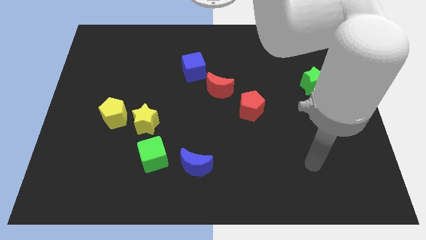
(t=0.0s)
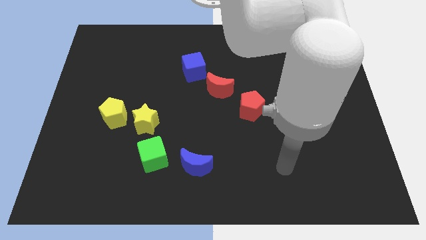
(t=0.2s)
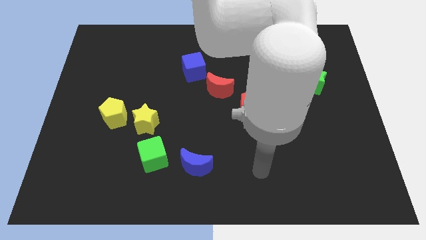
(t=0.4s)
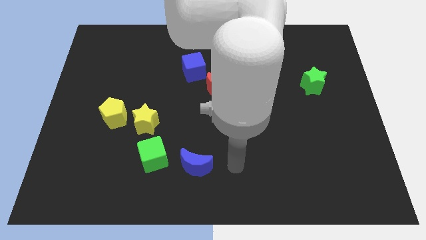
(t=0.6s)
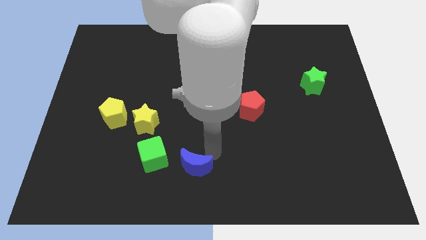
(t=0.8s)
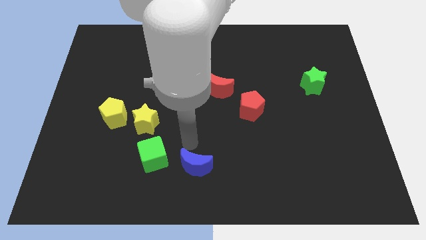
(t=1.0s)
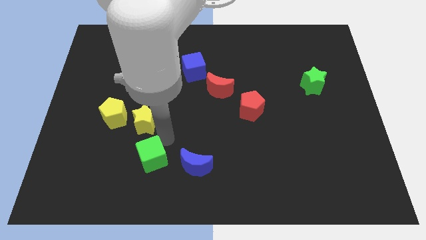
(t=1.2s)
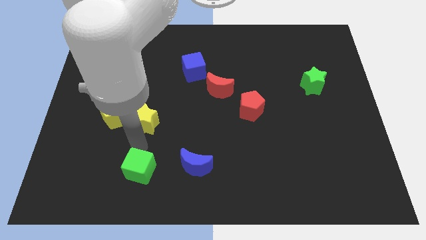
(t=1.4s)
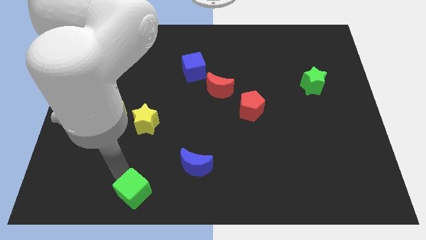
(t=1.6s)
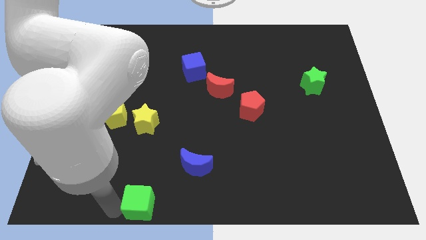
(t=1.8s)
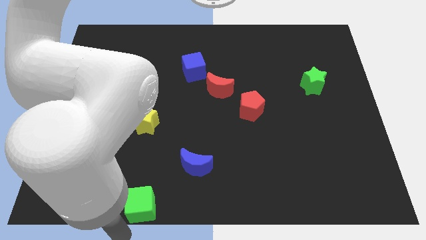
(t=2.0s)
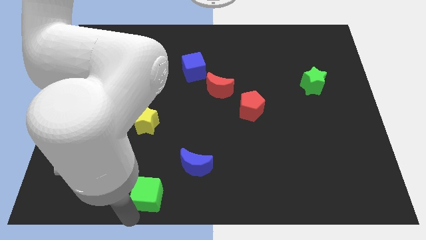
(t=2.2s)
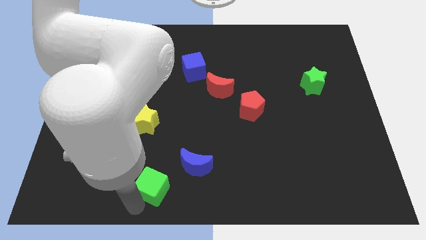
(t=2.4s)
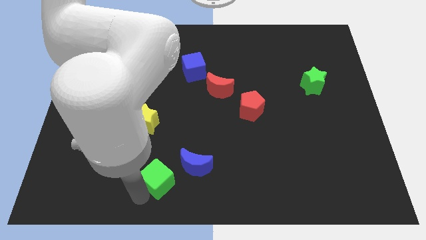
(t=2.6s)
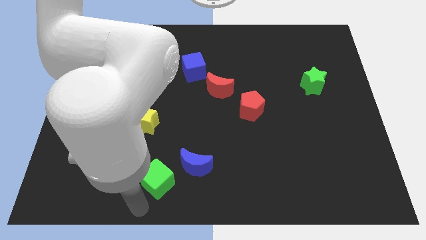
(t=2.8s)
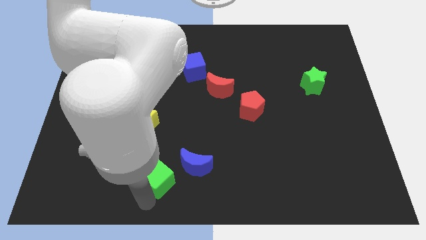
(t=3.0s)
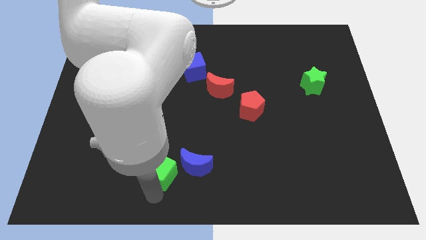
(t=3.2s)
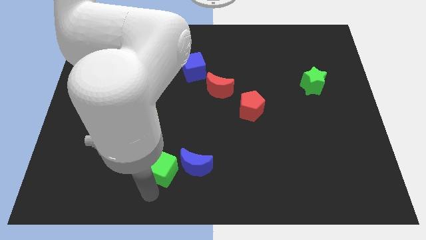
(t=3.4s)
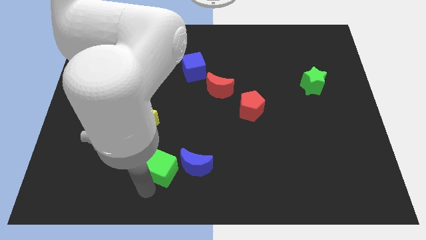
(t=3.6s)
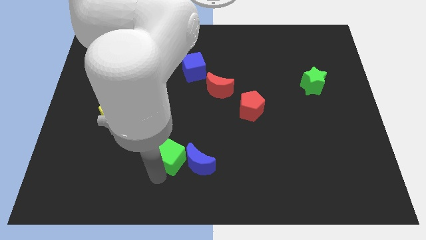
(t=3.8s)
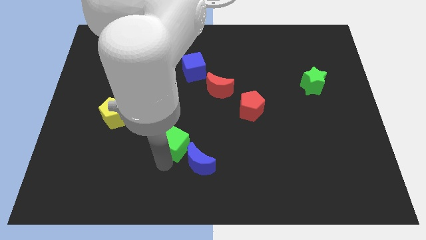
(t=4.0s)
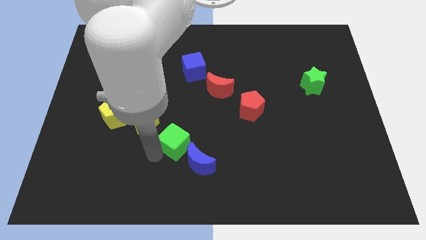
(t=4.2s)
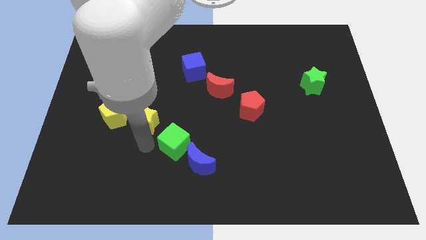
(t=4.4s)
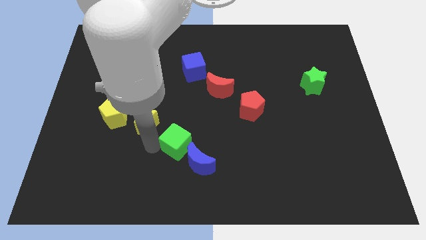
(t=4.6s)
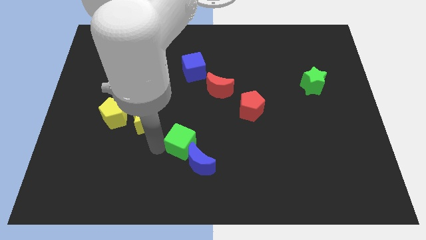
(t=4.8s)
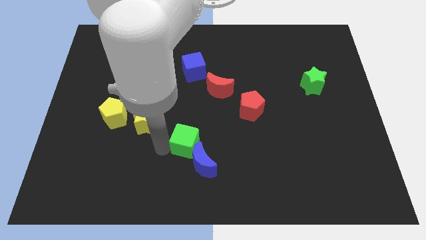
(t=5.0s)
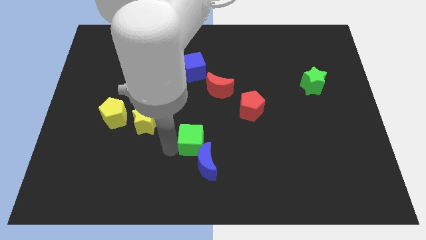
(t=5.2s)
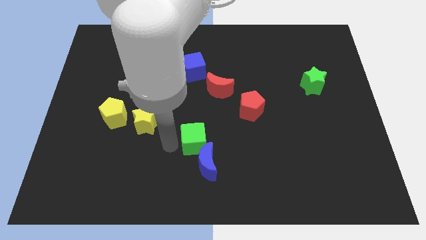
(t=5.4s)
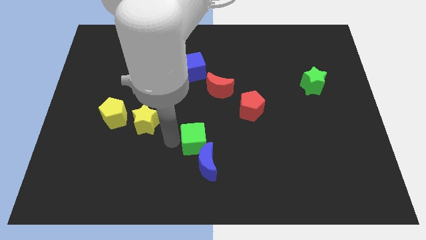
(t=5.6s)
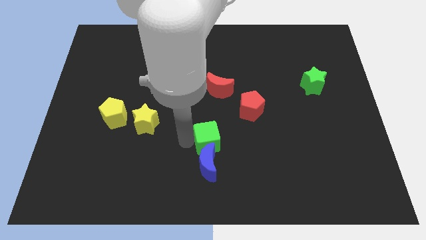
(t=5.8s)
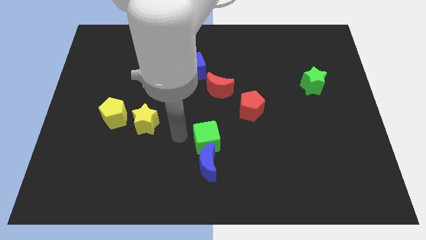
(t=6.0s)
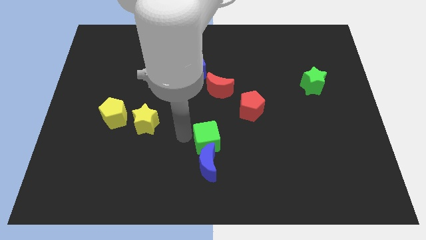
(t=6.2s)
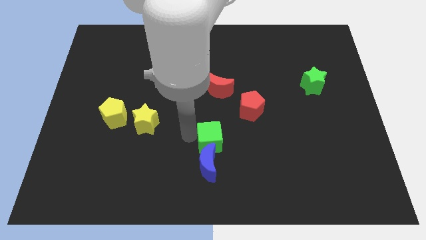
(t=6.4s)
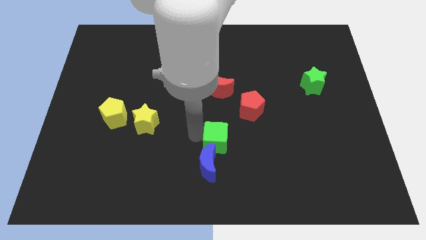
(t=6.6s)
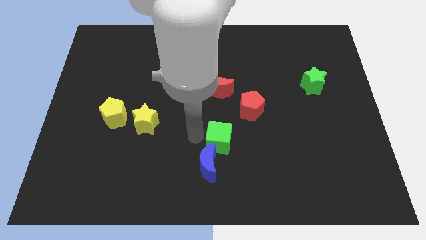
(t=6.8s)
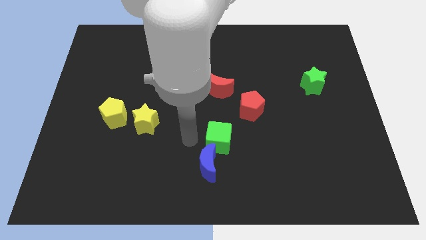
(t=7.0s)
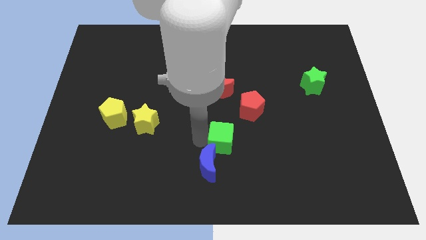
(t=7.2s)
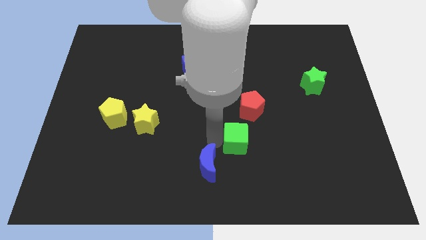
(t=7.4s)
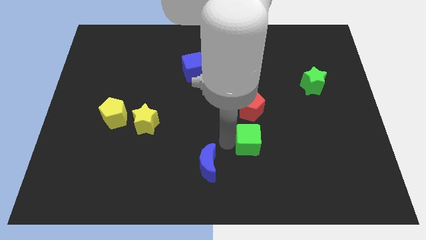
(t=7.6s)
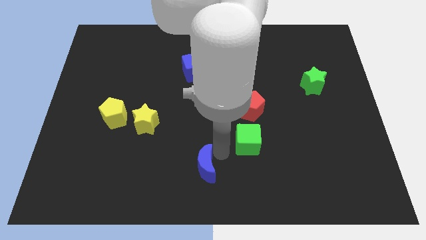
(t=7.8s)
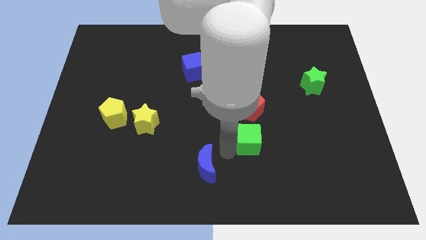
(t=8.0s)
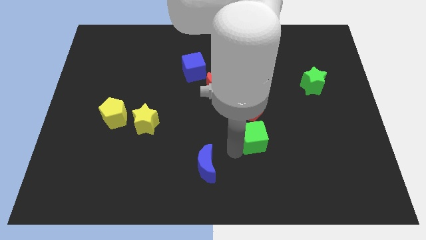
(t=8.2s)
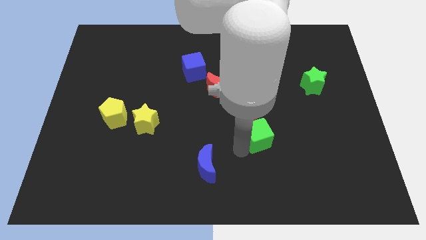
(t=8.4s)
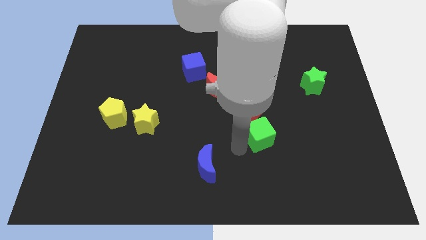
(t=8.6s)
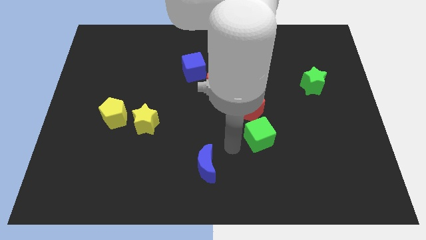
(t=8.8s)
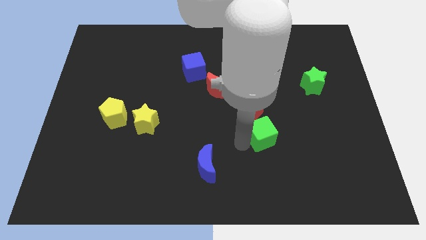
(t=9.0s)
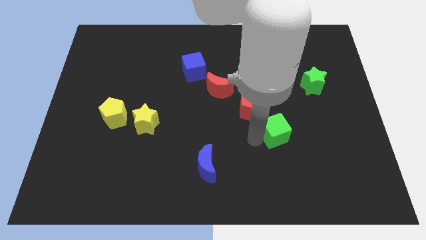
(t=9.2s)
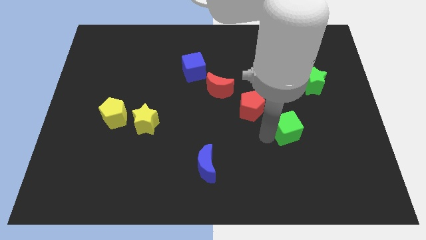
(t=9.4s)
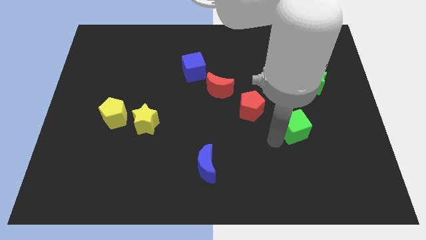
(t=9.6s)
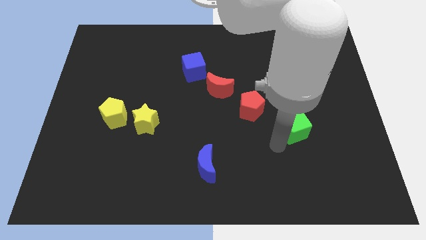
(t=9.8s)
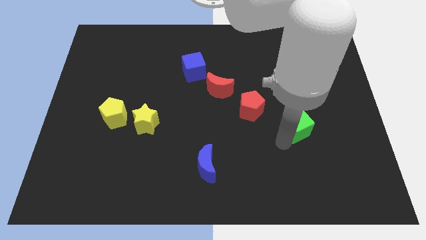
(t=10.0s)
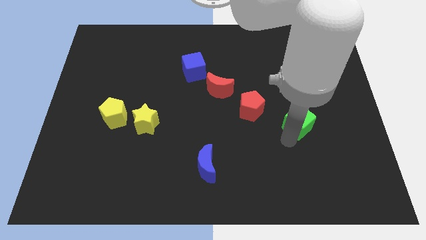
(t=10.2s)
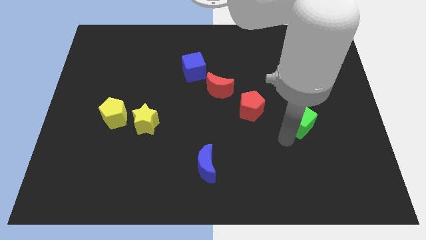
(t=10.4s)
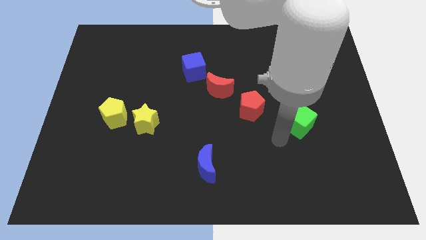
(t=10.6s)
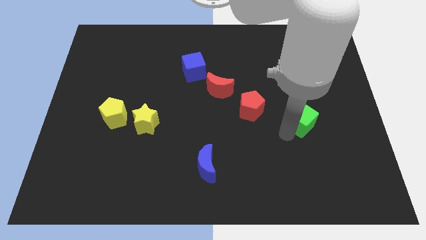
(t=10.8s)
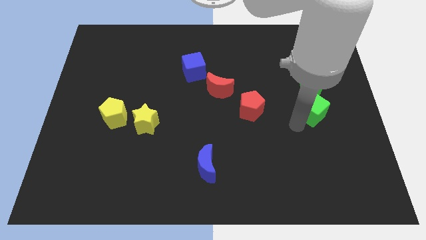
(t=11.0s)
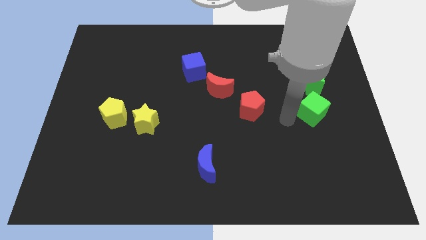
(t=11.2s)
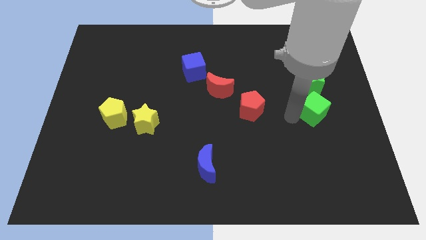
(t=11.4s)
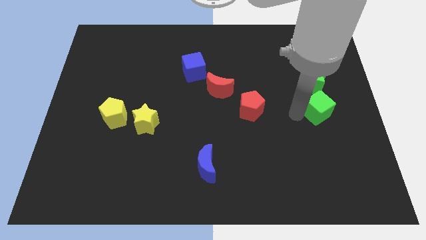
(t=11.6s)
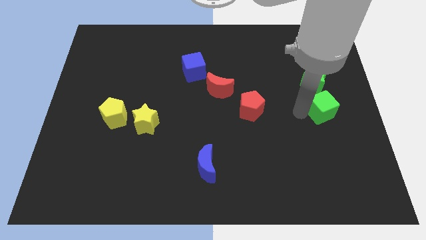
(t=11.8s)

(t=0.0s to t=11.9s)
move the green cube to the right side of the board

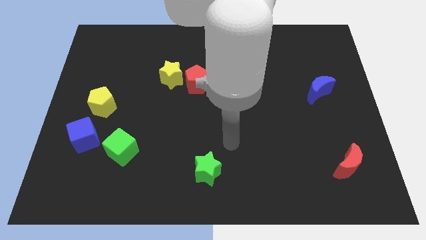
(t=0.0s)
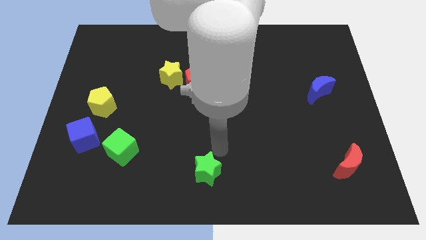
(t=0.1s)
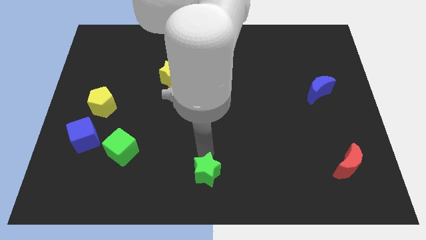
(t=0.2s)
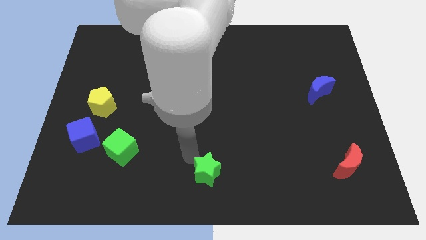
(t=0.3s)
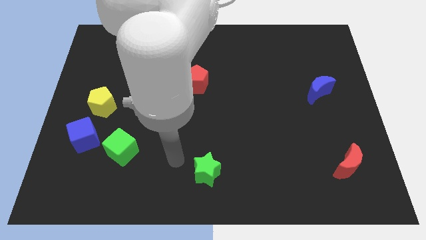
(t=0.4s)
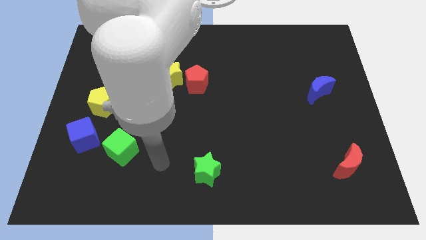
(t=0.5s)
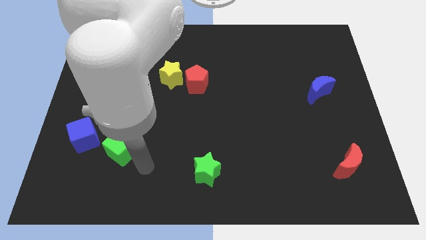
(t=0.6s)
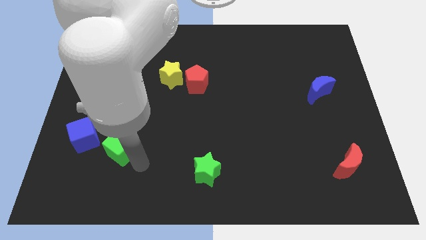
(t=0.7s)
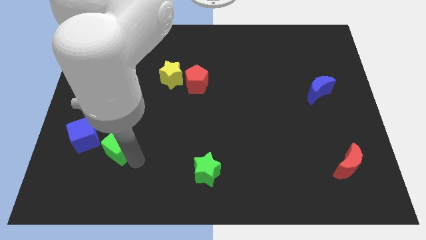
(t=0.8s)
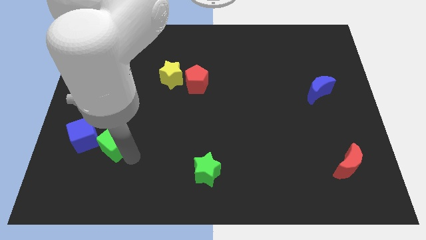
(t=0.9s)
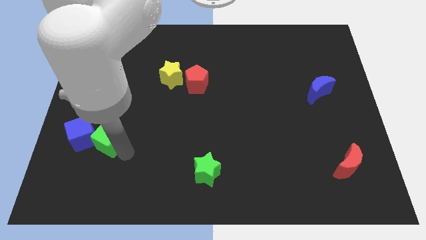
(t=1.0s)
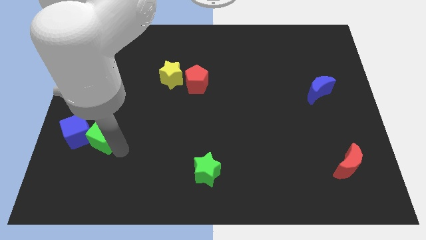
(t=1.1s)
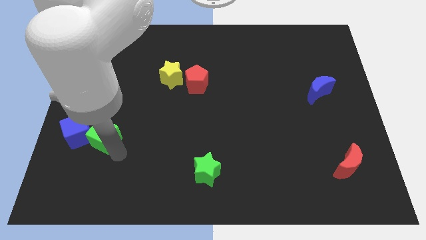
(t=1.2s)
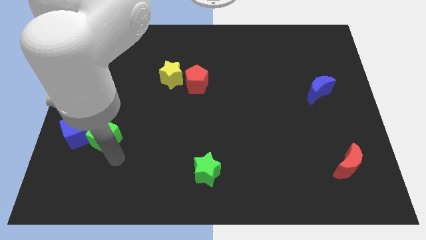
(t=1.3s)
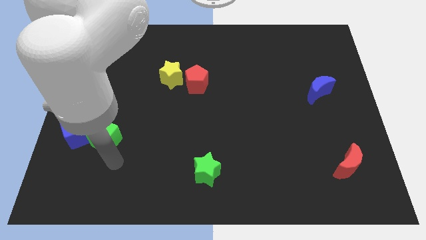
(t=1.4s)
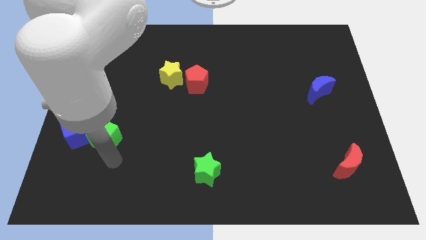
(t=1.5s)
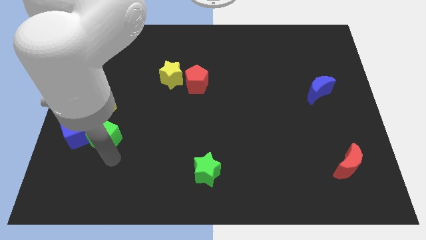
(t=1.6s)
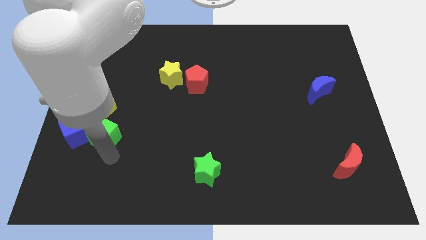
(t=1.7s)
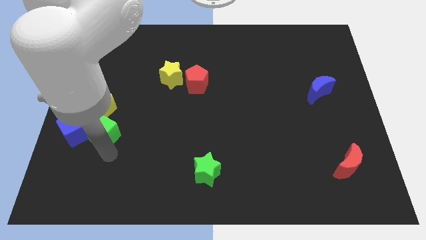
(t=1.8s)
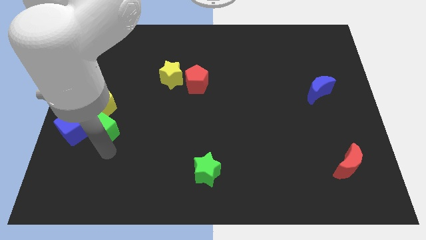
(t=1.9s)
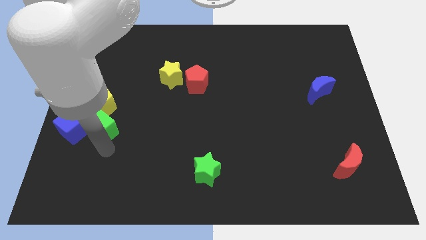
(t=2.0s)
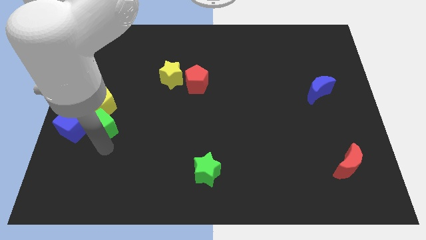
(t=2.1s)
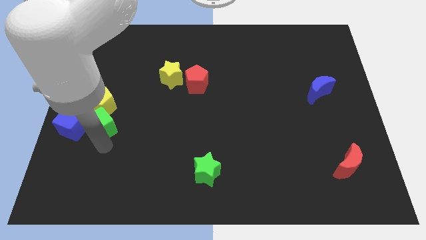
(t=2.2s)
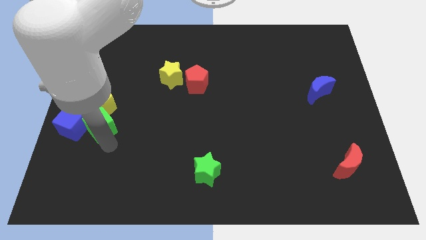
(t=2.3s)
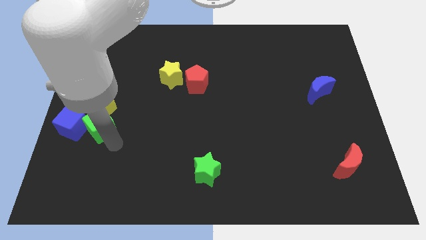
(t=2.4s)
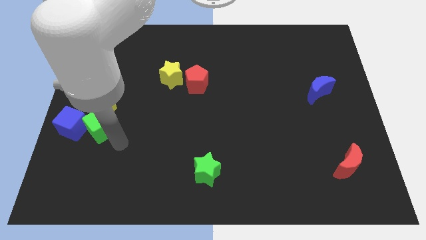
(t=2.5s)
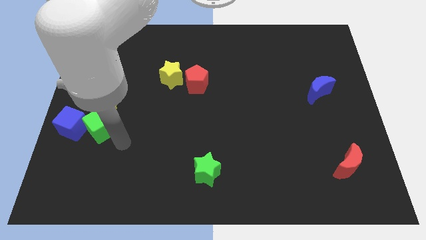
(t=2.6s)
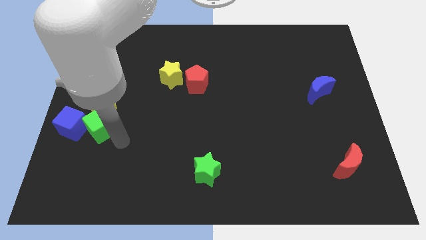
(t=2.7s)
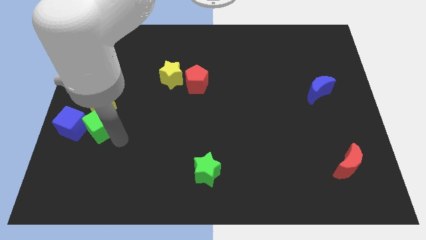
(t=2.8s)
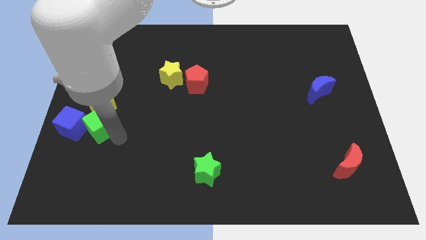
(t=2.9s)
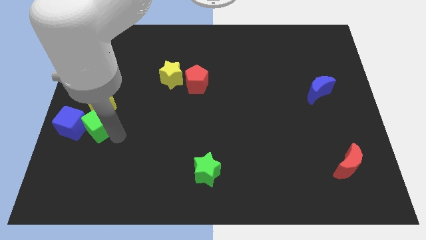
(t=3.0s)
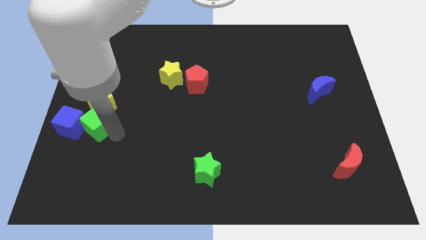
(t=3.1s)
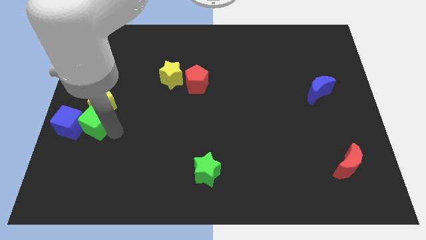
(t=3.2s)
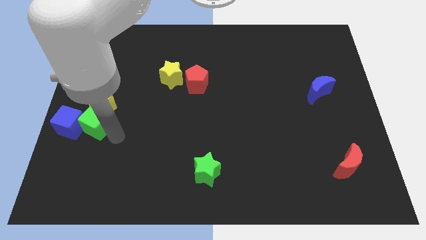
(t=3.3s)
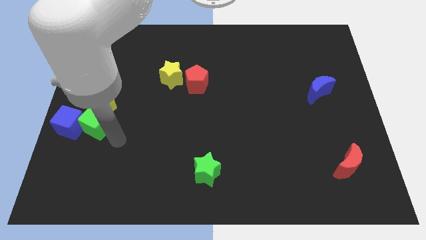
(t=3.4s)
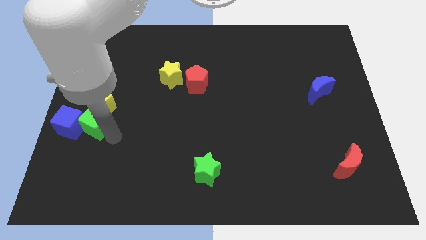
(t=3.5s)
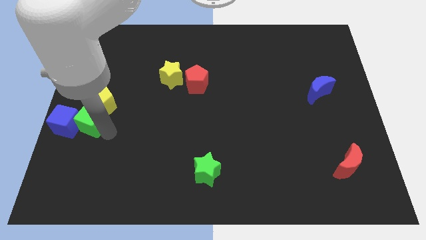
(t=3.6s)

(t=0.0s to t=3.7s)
move the green cube to the center left
